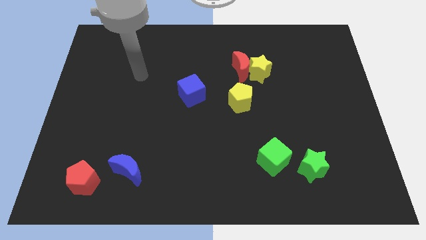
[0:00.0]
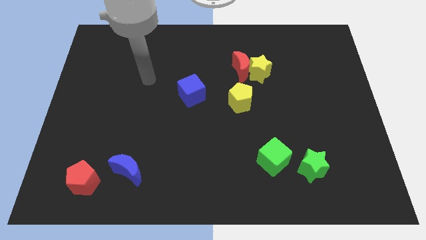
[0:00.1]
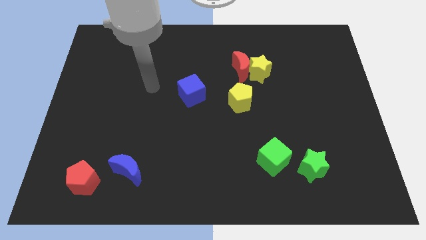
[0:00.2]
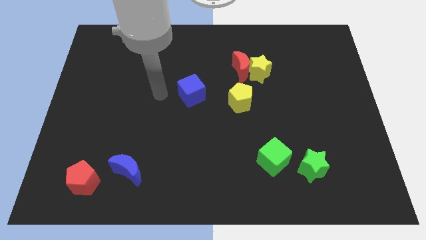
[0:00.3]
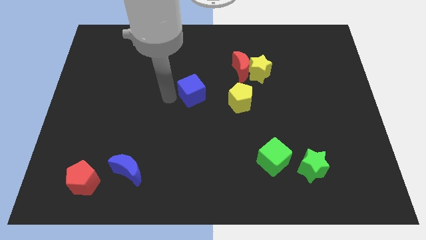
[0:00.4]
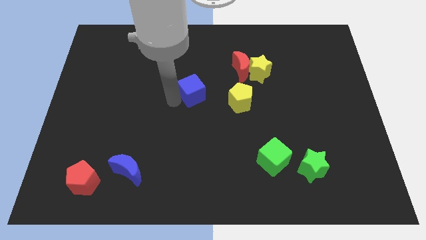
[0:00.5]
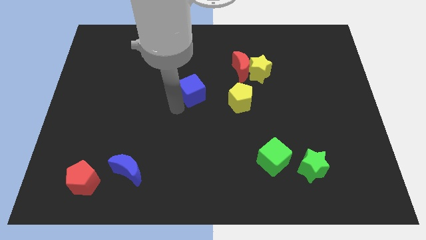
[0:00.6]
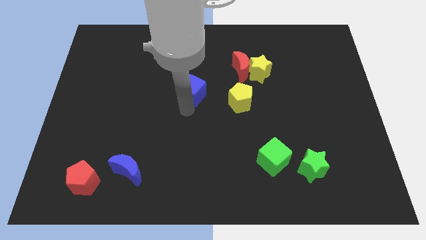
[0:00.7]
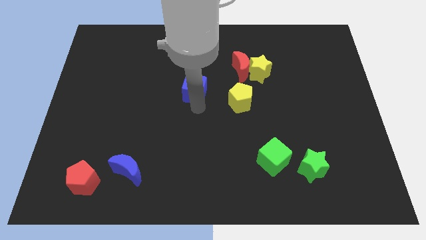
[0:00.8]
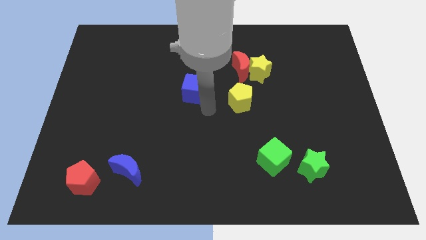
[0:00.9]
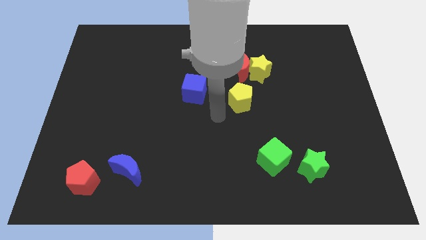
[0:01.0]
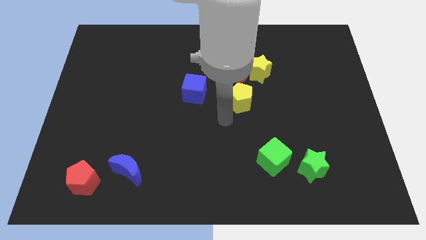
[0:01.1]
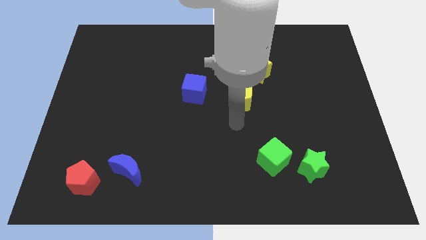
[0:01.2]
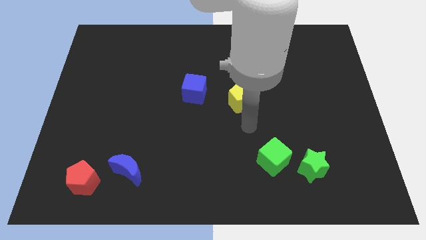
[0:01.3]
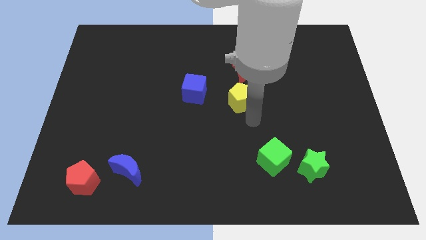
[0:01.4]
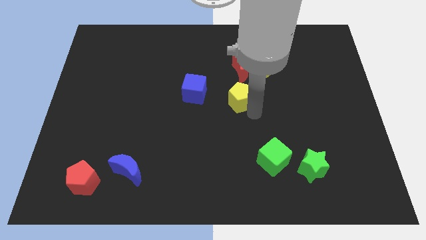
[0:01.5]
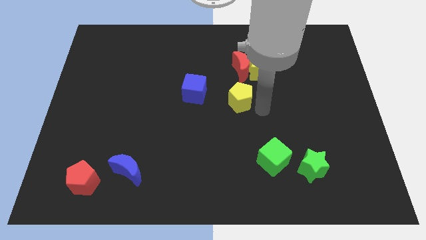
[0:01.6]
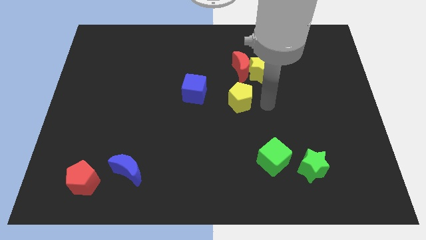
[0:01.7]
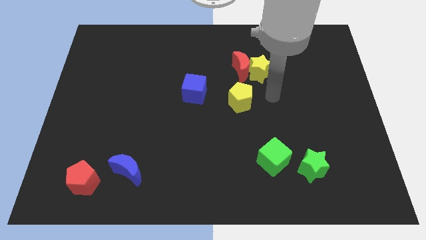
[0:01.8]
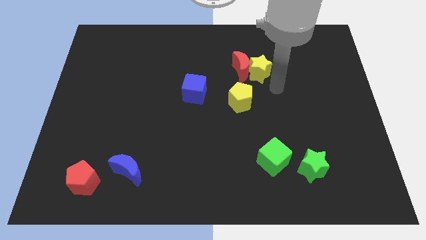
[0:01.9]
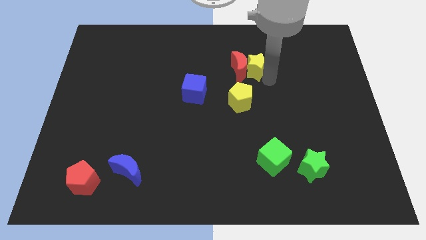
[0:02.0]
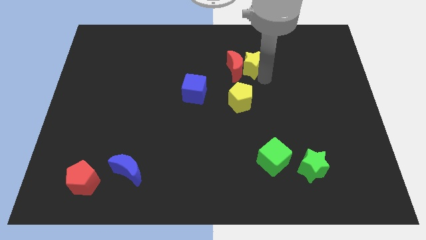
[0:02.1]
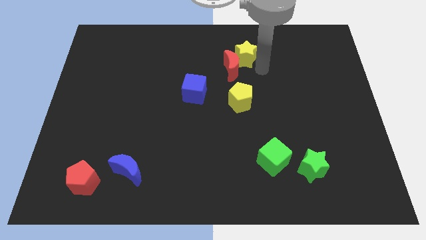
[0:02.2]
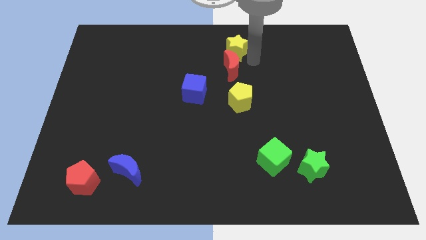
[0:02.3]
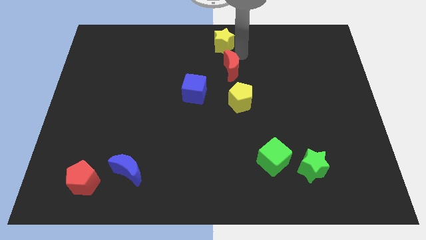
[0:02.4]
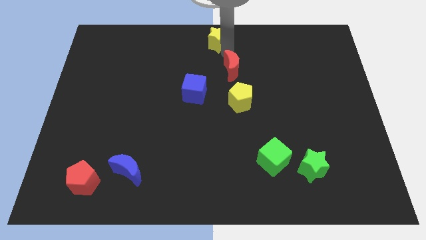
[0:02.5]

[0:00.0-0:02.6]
pull the red moon apart from the yellow star

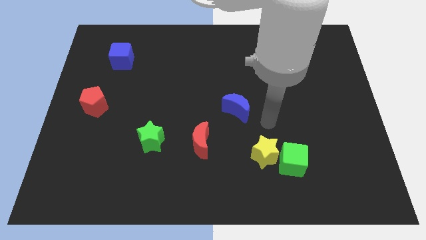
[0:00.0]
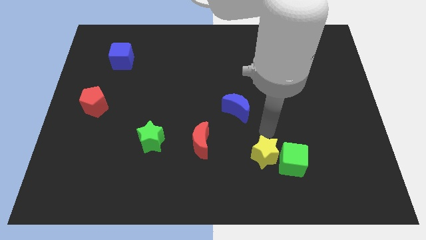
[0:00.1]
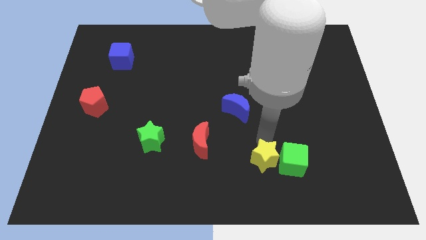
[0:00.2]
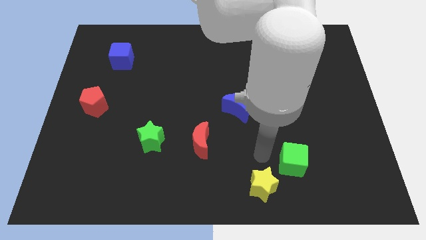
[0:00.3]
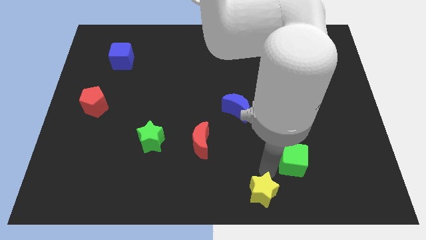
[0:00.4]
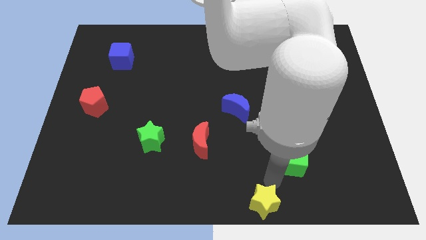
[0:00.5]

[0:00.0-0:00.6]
pull the green cube apart from the yellow star

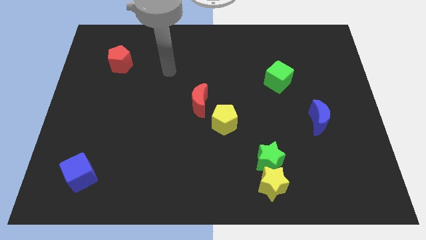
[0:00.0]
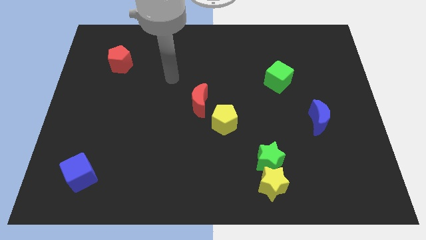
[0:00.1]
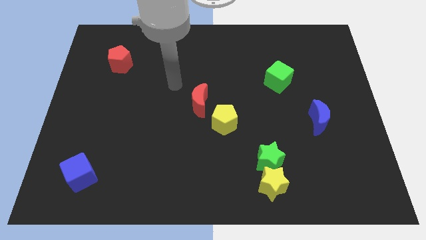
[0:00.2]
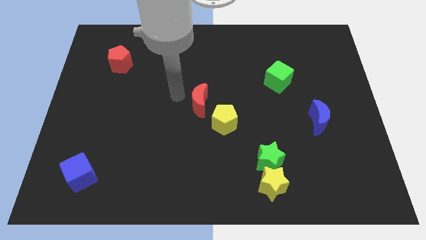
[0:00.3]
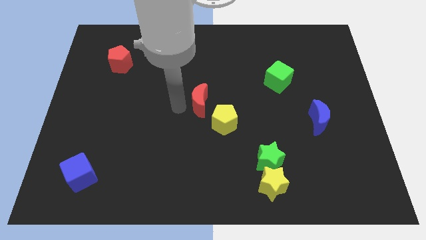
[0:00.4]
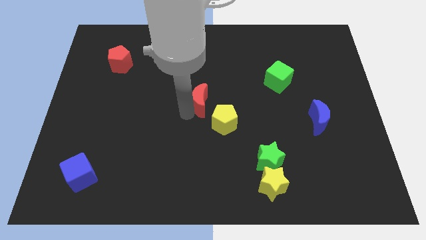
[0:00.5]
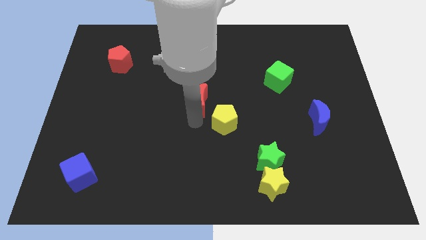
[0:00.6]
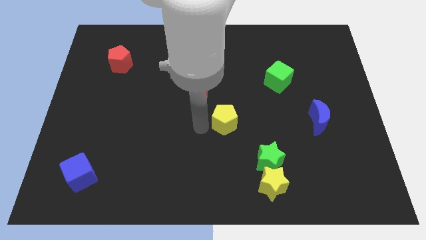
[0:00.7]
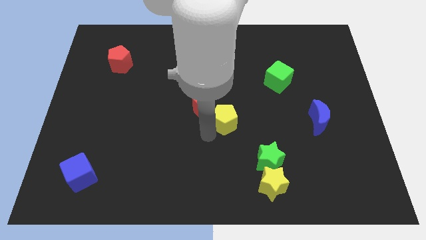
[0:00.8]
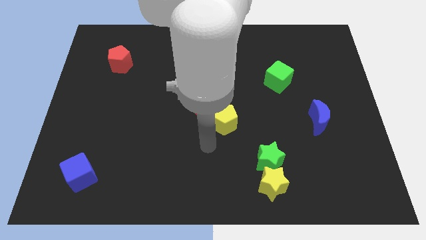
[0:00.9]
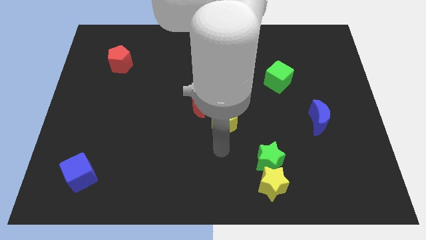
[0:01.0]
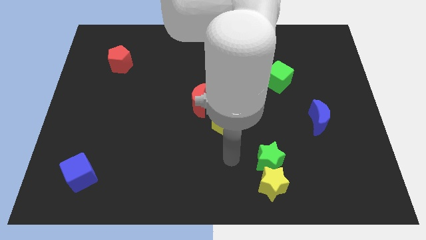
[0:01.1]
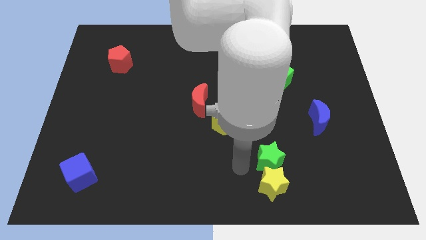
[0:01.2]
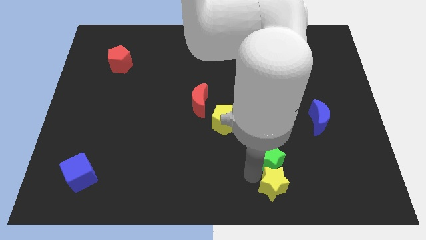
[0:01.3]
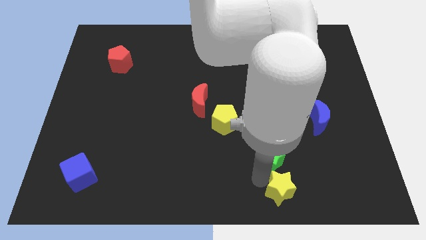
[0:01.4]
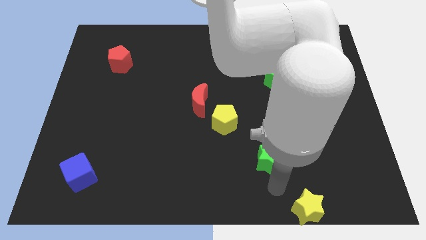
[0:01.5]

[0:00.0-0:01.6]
separate the green star from the yellow star

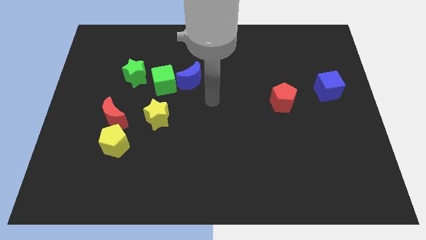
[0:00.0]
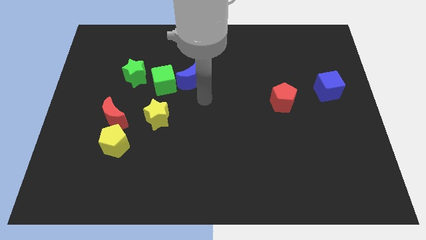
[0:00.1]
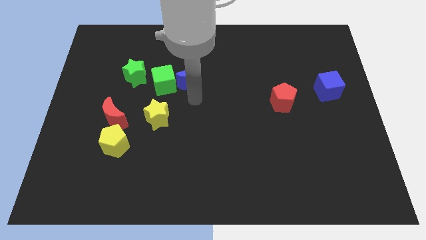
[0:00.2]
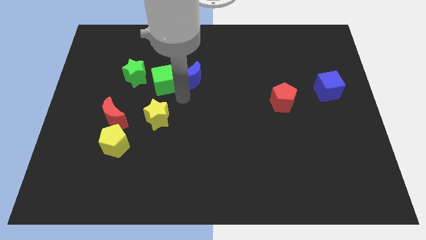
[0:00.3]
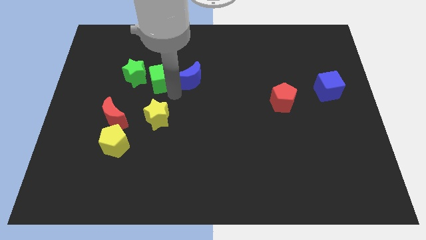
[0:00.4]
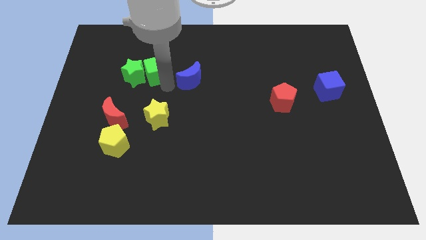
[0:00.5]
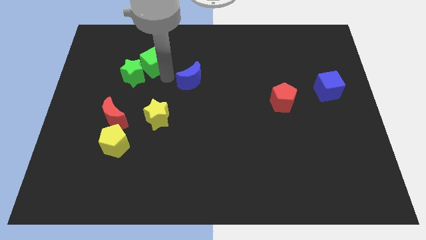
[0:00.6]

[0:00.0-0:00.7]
pull the blue moon apart from the green cube

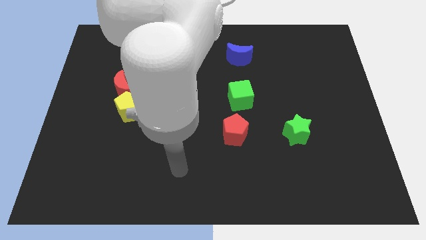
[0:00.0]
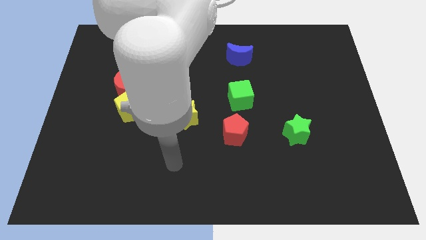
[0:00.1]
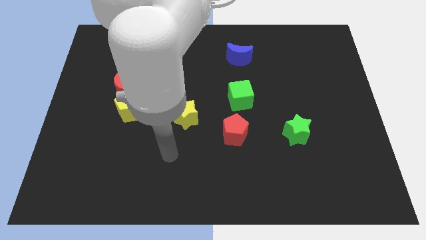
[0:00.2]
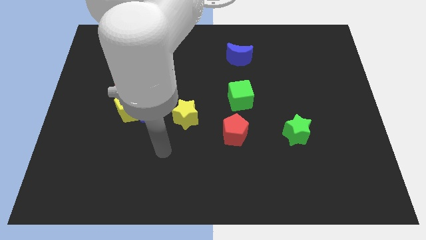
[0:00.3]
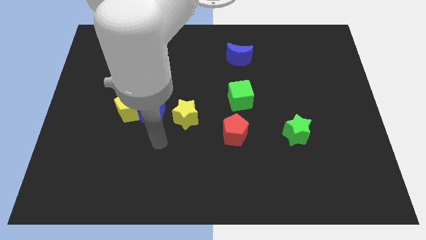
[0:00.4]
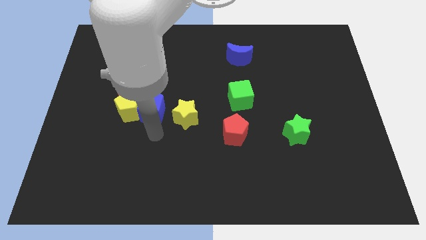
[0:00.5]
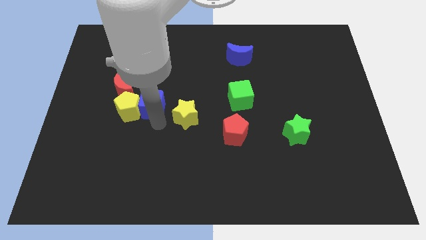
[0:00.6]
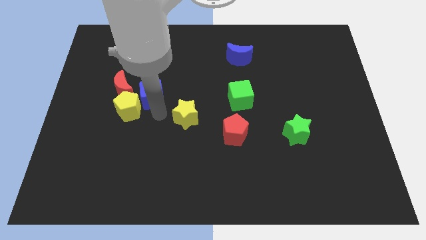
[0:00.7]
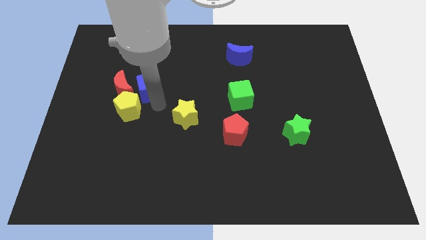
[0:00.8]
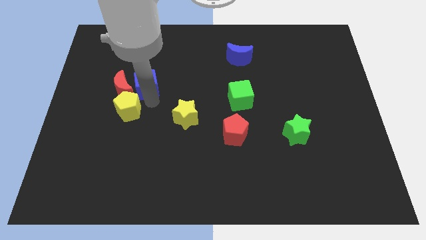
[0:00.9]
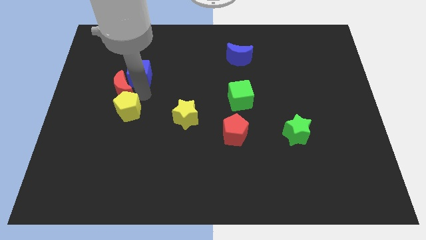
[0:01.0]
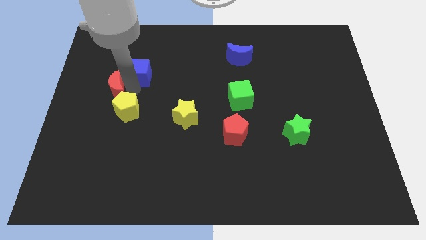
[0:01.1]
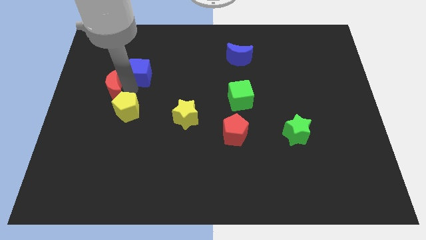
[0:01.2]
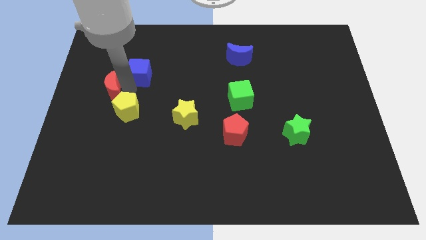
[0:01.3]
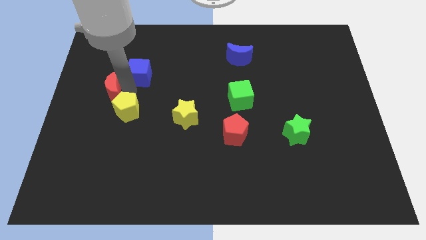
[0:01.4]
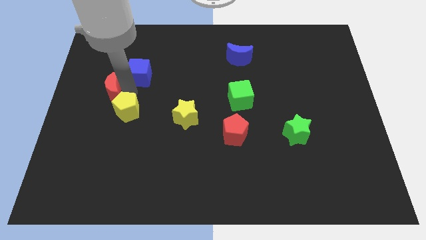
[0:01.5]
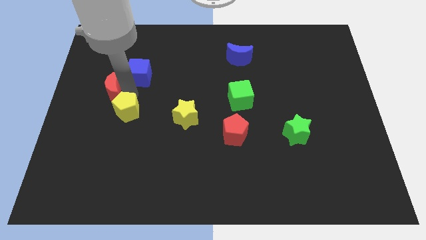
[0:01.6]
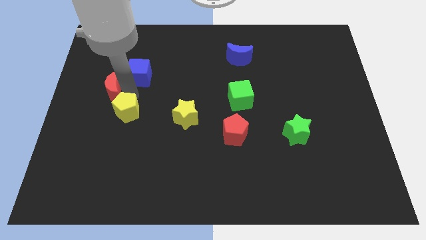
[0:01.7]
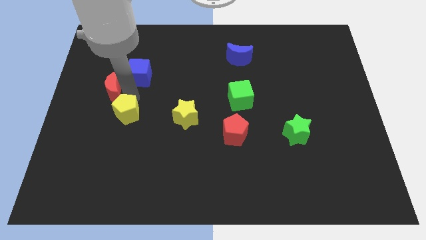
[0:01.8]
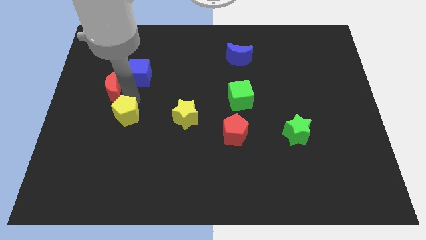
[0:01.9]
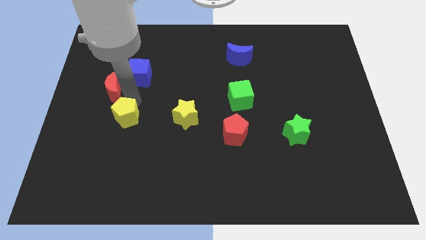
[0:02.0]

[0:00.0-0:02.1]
move the yellow pentagon away from the blue cube and red moon

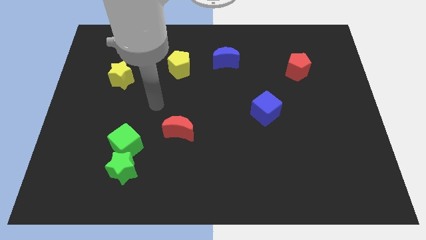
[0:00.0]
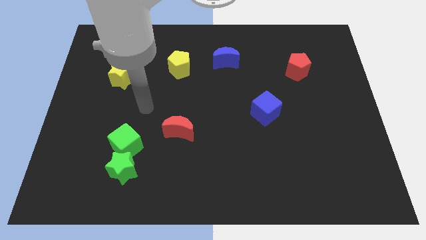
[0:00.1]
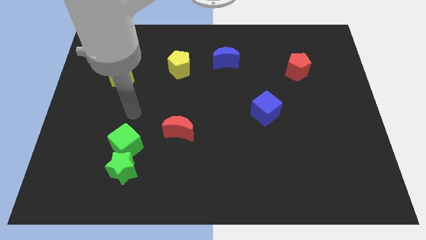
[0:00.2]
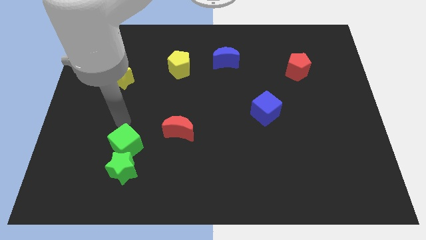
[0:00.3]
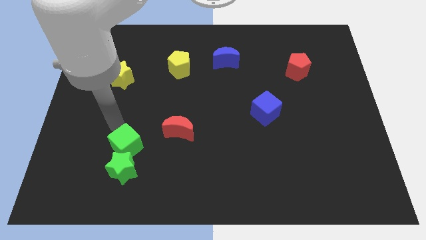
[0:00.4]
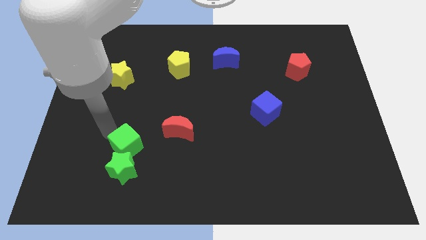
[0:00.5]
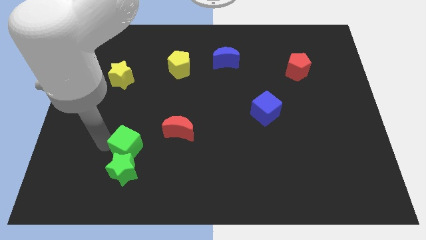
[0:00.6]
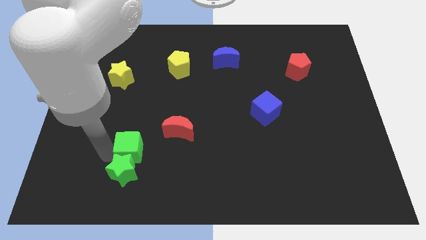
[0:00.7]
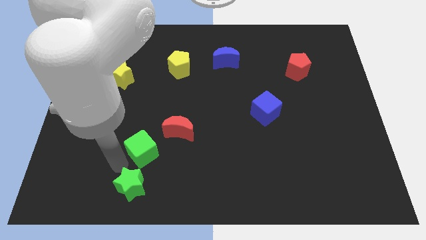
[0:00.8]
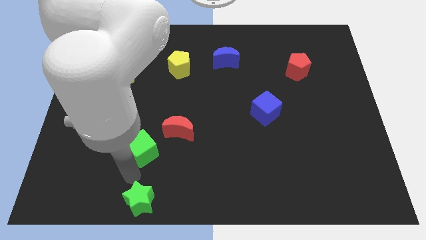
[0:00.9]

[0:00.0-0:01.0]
separate the green cube from the green star

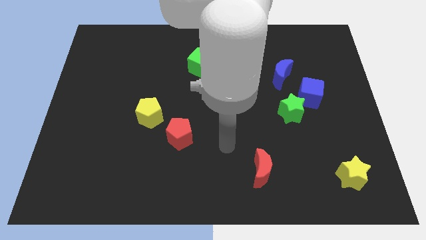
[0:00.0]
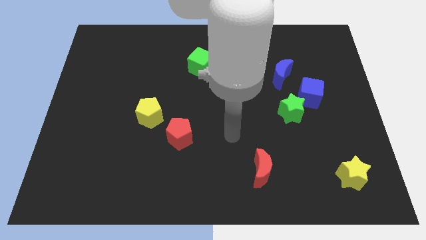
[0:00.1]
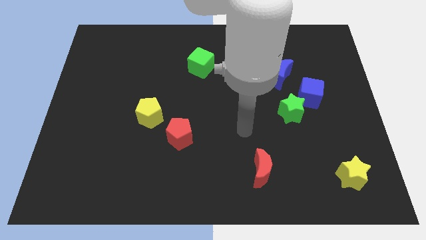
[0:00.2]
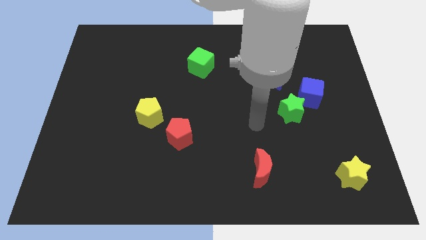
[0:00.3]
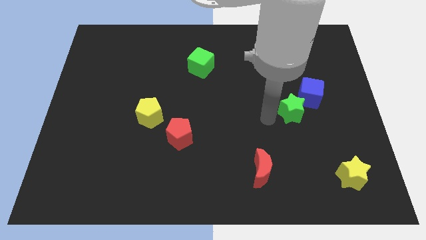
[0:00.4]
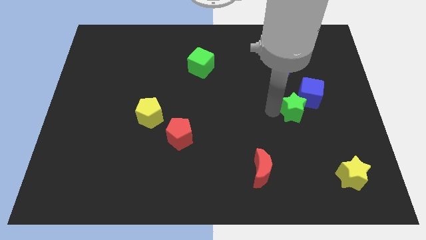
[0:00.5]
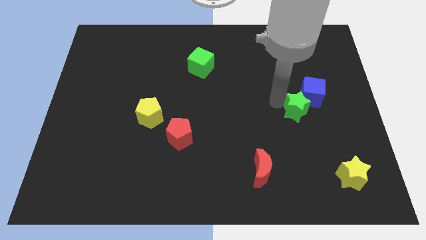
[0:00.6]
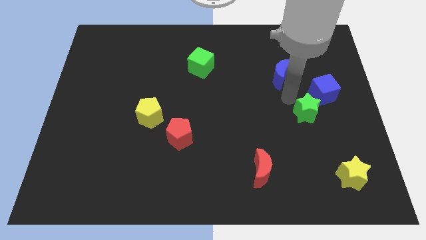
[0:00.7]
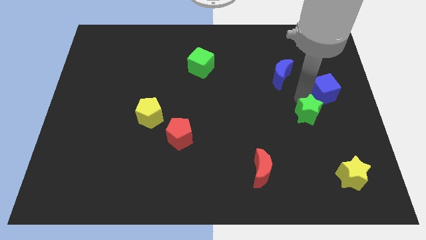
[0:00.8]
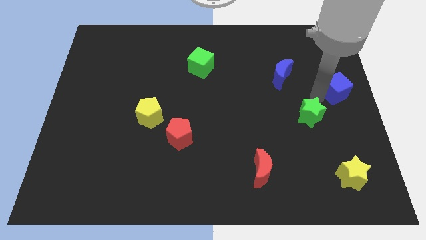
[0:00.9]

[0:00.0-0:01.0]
move the green star away from the blue cube
